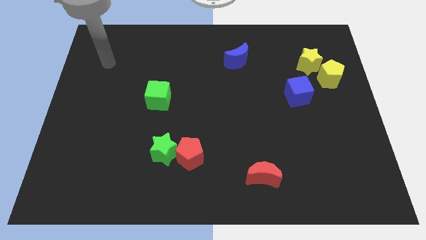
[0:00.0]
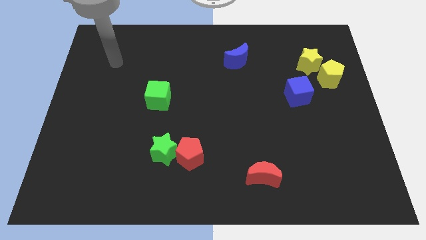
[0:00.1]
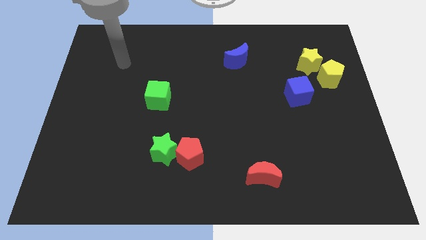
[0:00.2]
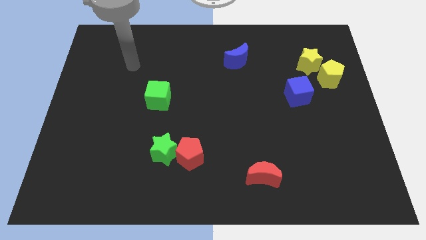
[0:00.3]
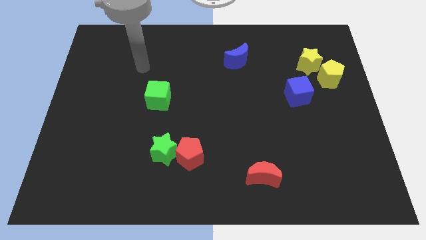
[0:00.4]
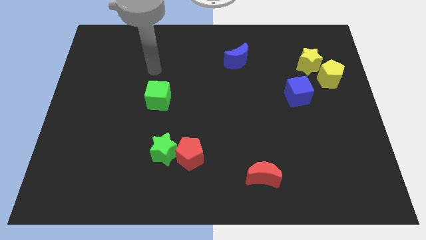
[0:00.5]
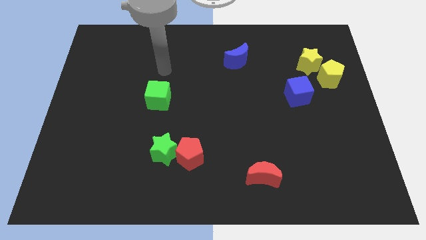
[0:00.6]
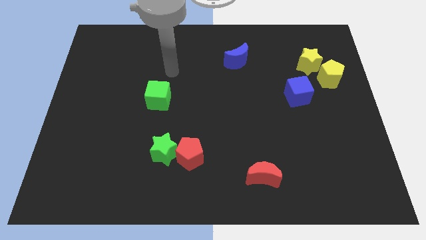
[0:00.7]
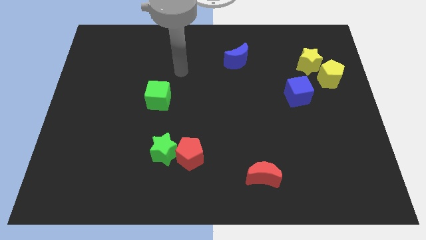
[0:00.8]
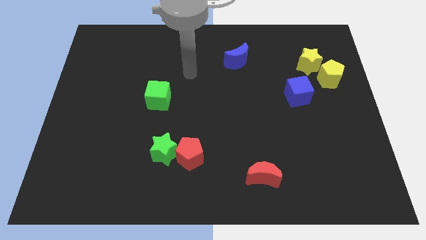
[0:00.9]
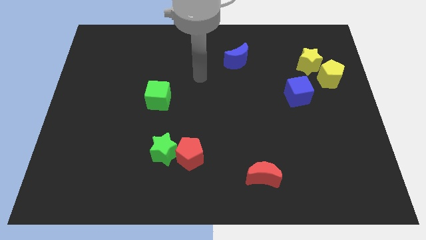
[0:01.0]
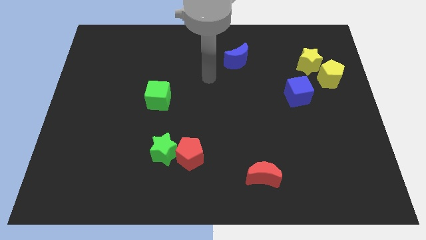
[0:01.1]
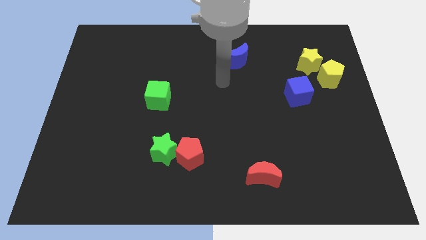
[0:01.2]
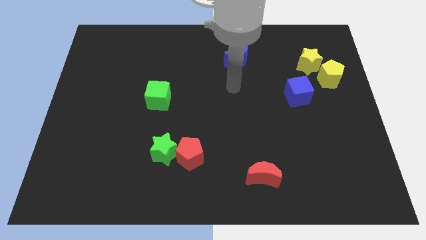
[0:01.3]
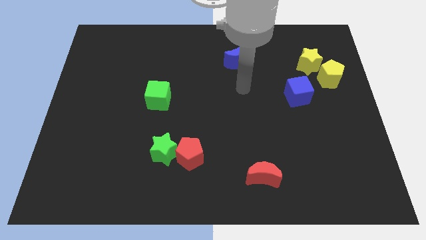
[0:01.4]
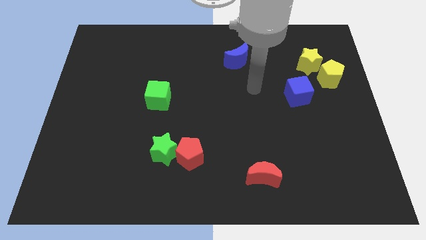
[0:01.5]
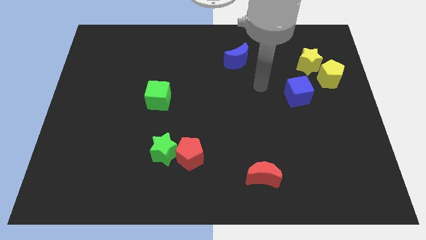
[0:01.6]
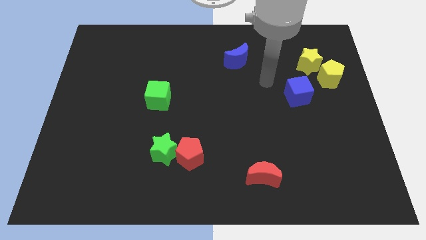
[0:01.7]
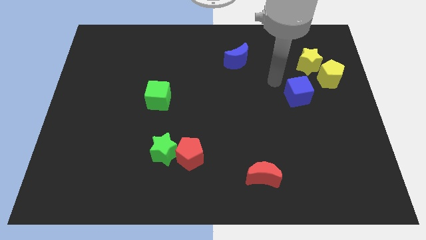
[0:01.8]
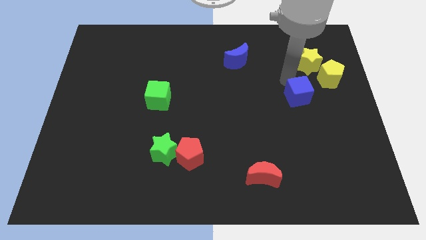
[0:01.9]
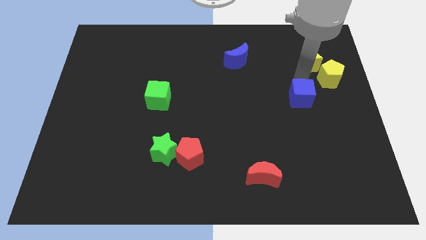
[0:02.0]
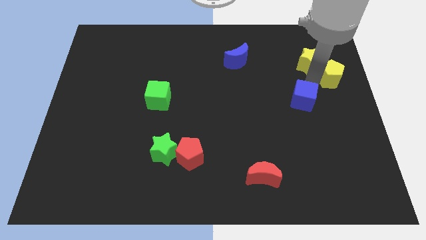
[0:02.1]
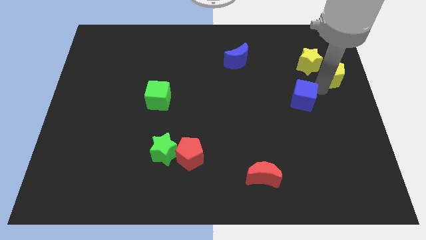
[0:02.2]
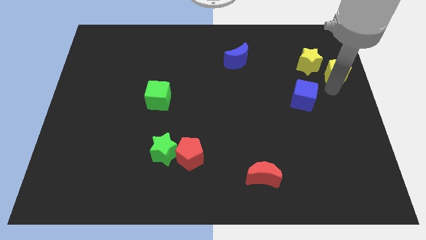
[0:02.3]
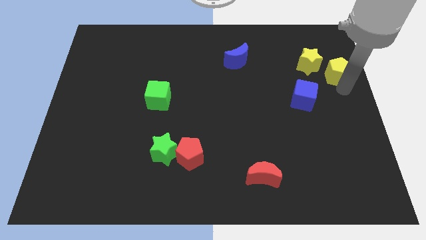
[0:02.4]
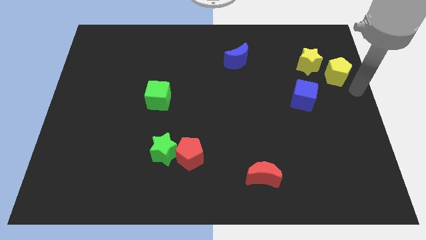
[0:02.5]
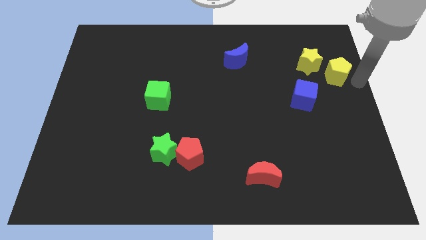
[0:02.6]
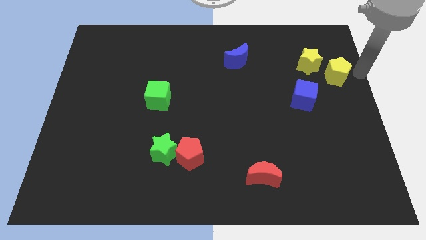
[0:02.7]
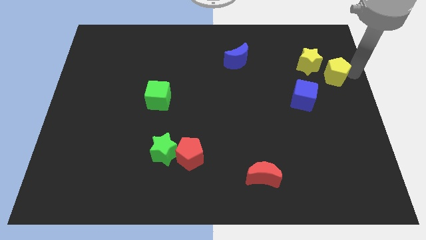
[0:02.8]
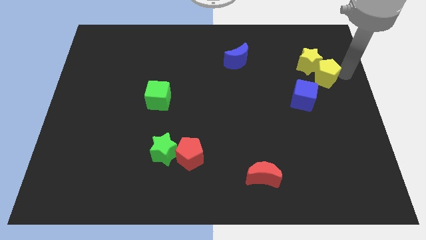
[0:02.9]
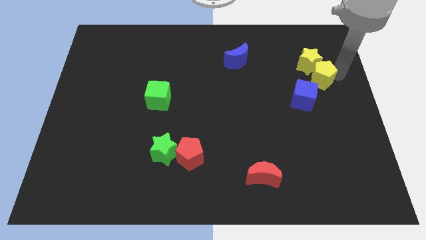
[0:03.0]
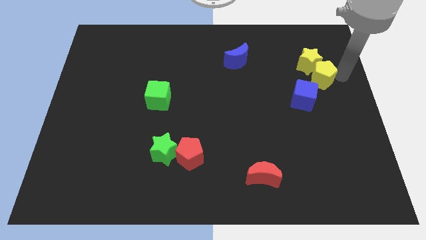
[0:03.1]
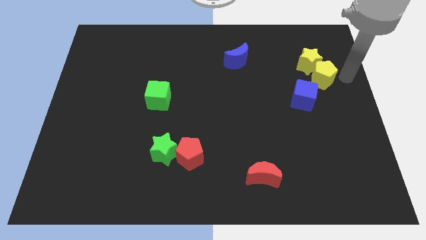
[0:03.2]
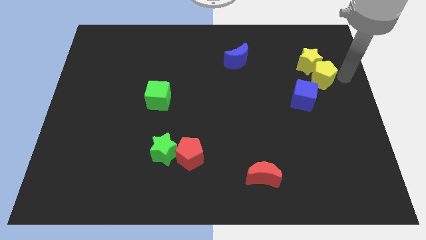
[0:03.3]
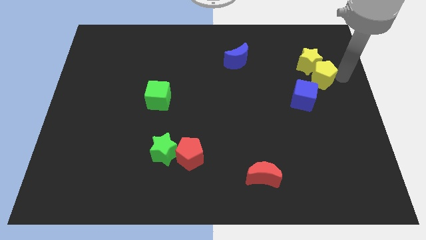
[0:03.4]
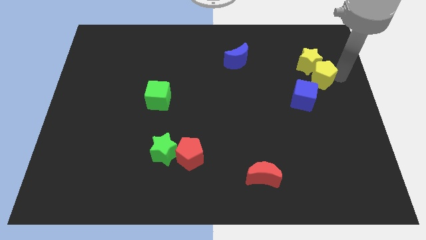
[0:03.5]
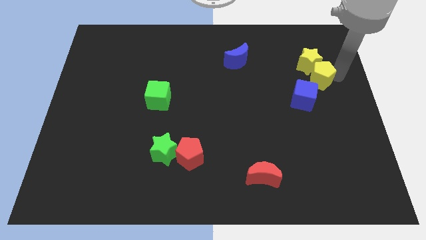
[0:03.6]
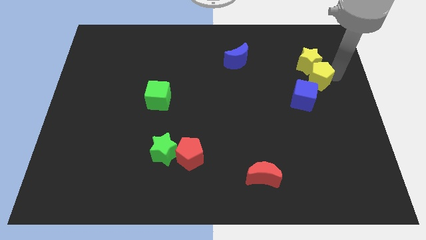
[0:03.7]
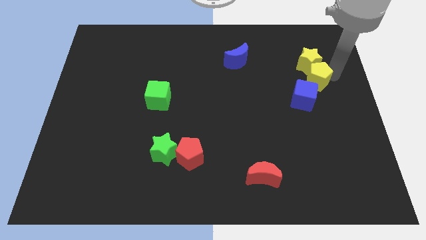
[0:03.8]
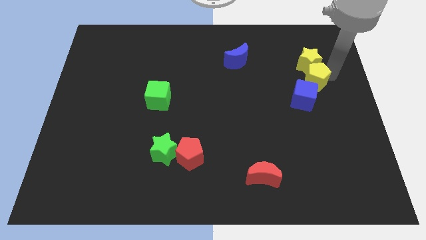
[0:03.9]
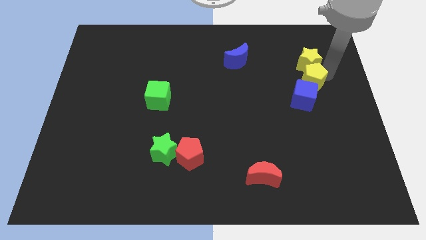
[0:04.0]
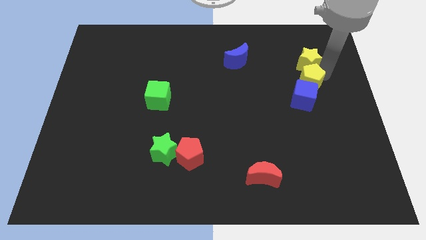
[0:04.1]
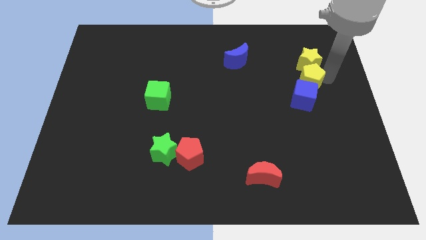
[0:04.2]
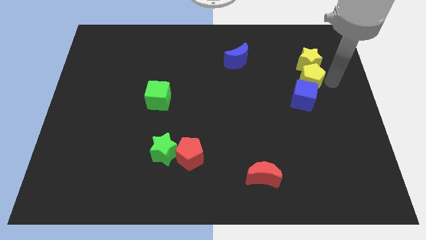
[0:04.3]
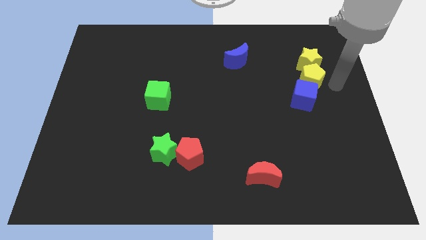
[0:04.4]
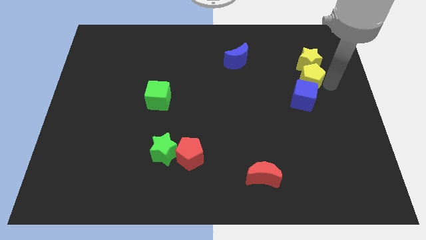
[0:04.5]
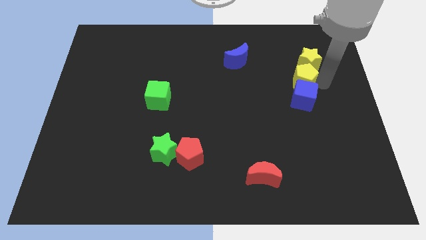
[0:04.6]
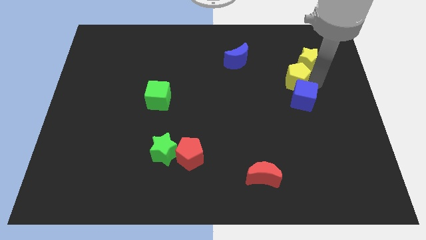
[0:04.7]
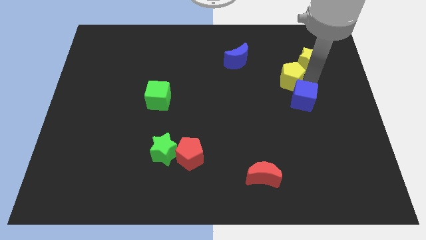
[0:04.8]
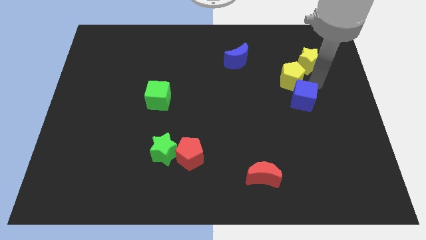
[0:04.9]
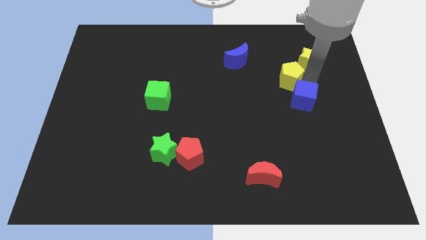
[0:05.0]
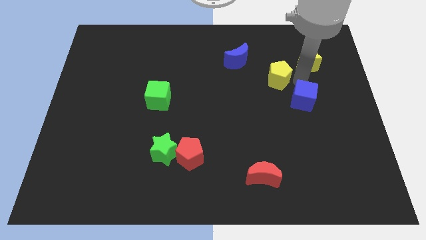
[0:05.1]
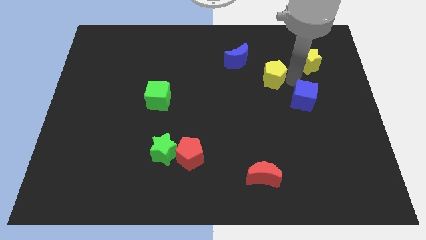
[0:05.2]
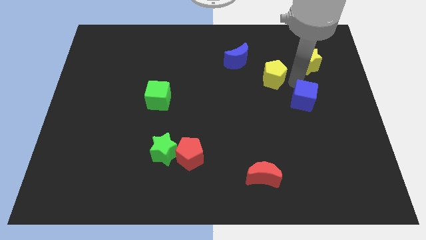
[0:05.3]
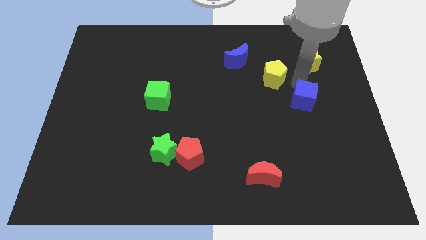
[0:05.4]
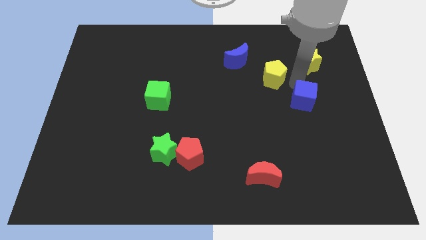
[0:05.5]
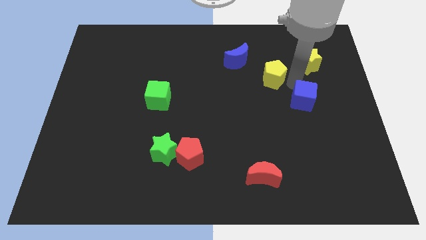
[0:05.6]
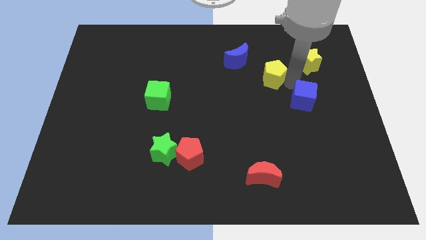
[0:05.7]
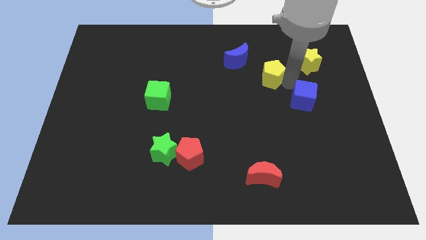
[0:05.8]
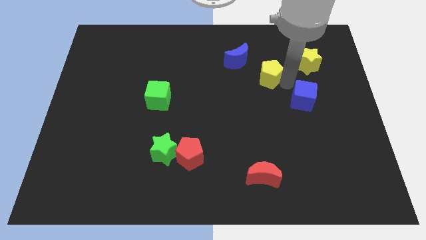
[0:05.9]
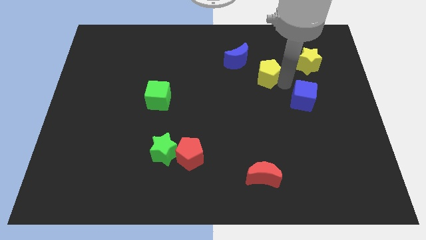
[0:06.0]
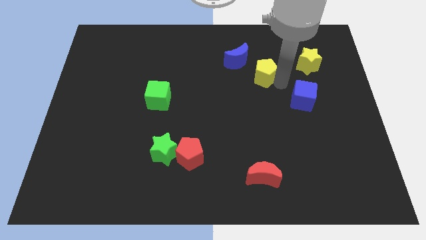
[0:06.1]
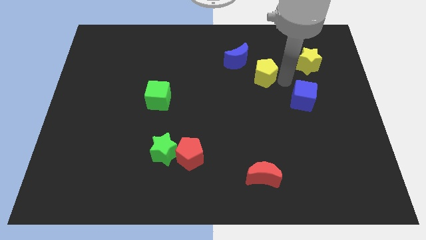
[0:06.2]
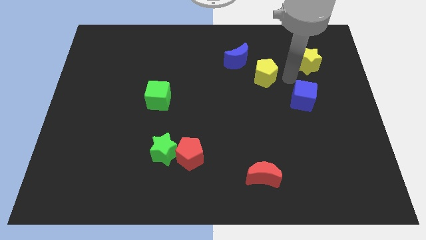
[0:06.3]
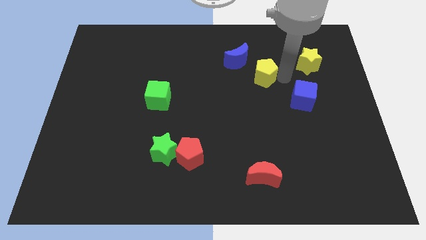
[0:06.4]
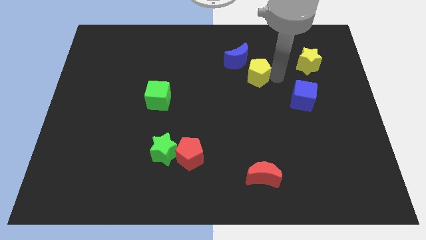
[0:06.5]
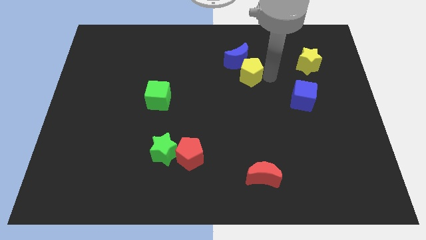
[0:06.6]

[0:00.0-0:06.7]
move the yellow pentagon left

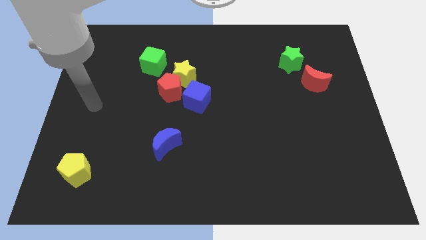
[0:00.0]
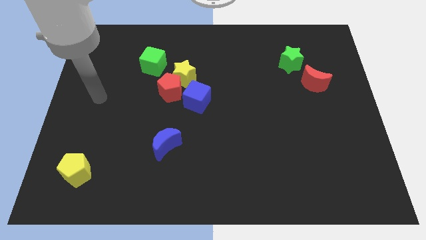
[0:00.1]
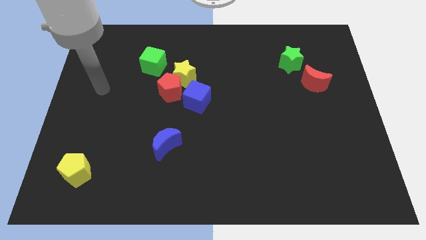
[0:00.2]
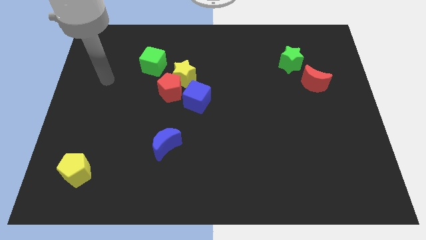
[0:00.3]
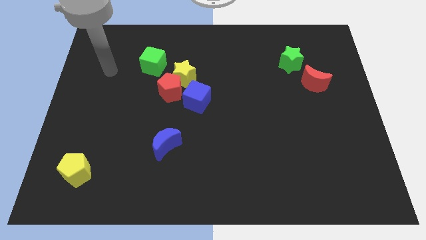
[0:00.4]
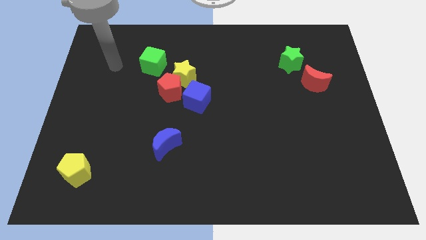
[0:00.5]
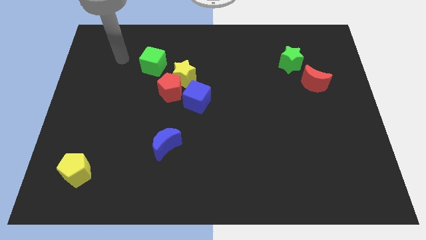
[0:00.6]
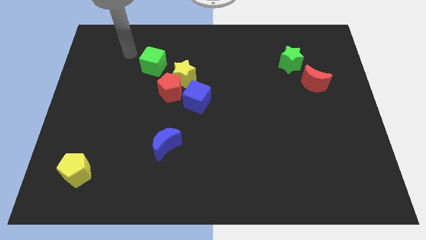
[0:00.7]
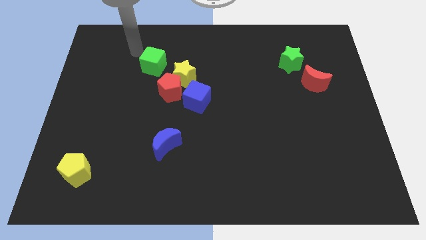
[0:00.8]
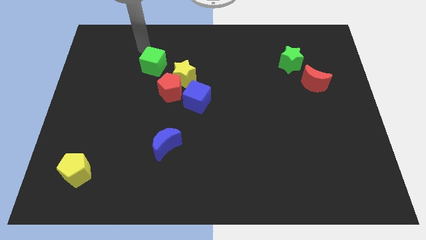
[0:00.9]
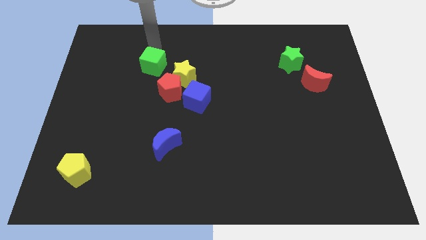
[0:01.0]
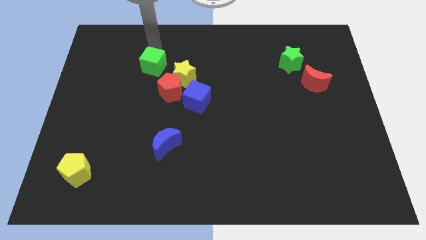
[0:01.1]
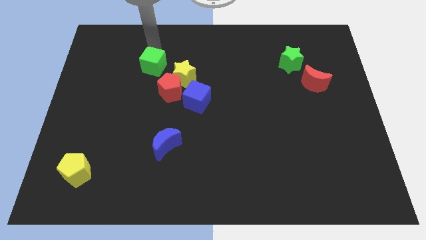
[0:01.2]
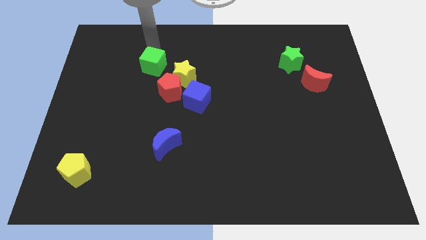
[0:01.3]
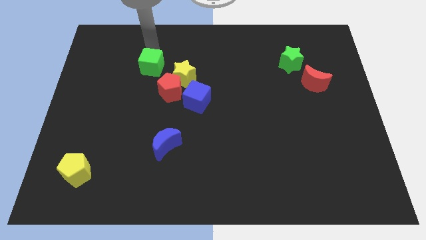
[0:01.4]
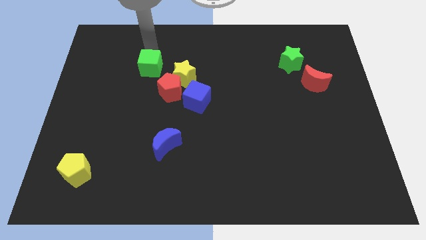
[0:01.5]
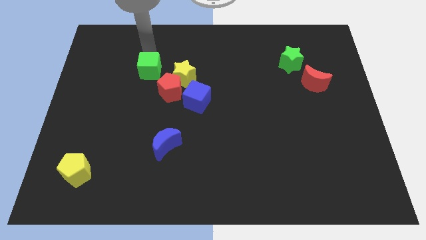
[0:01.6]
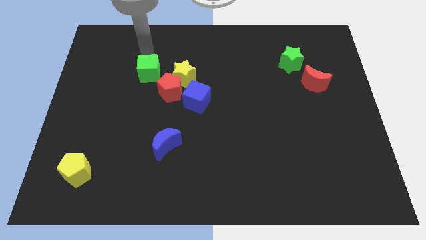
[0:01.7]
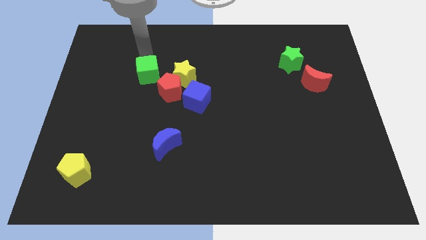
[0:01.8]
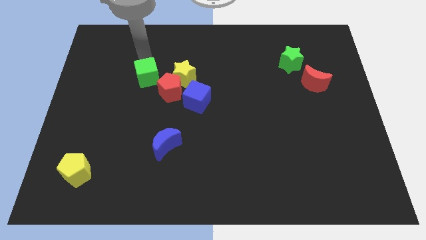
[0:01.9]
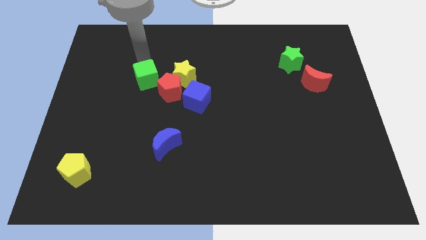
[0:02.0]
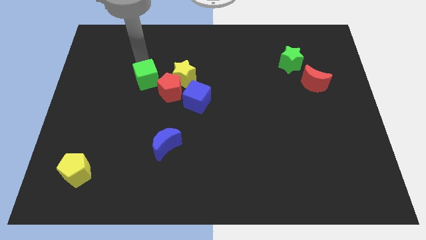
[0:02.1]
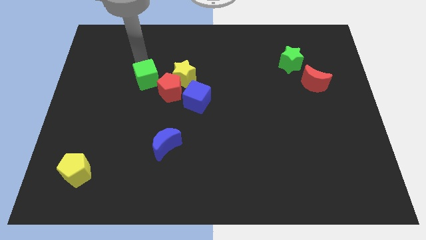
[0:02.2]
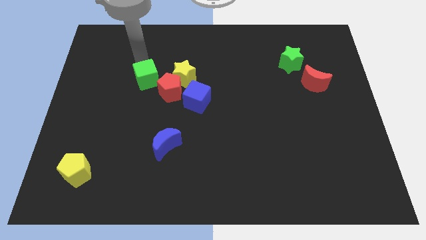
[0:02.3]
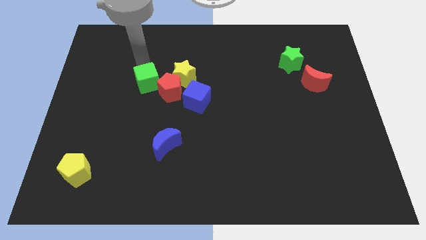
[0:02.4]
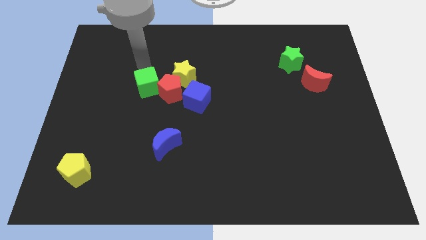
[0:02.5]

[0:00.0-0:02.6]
slide the green cube a little bit downwards
